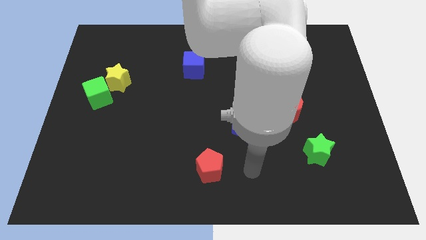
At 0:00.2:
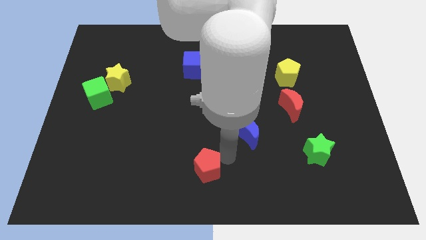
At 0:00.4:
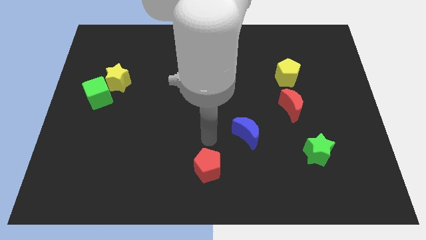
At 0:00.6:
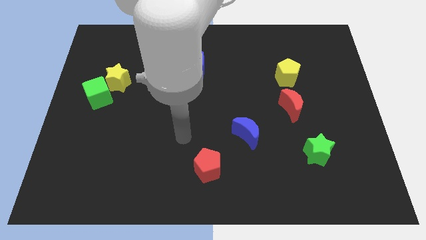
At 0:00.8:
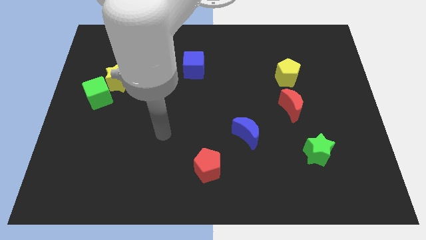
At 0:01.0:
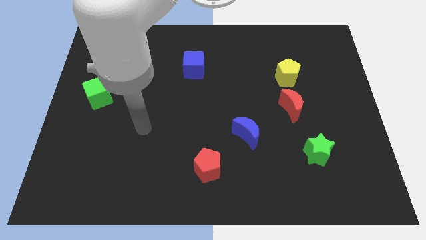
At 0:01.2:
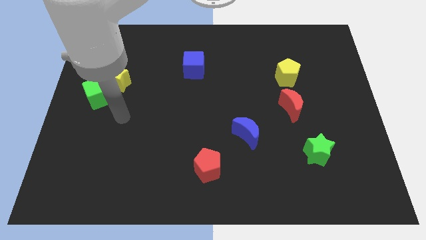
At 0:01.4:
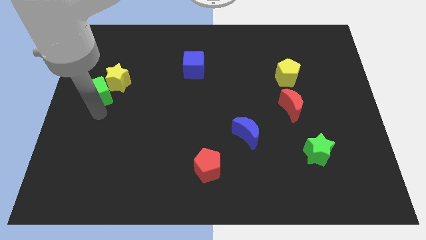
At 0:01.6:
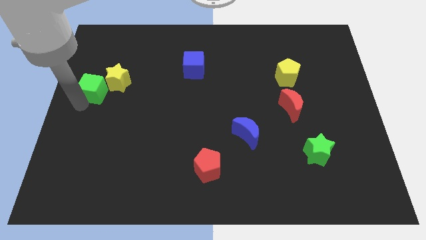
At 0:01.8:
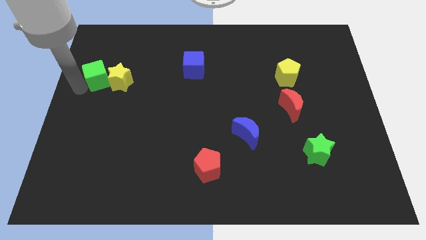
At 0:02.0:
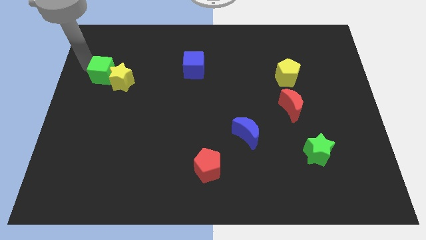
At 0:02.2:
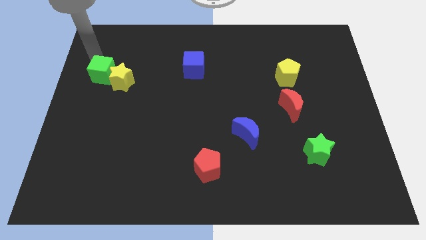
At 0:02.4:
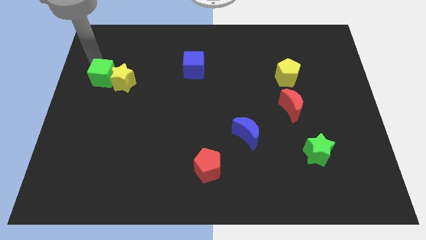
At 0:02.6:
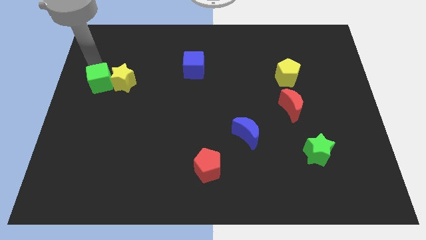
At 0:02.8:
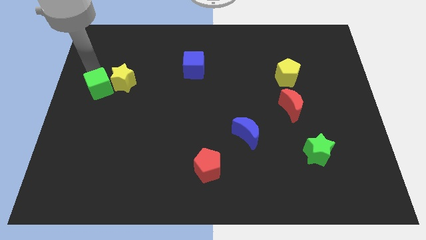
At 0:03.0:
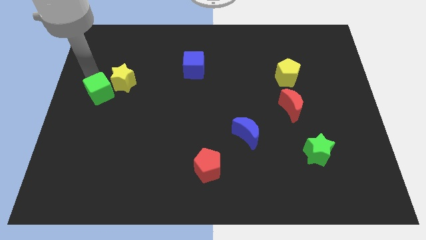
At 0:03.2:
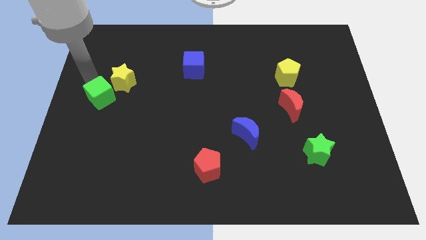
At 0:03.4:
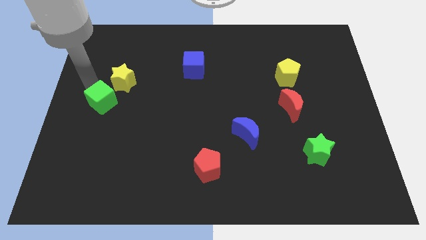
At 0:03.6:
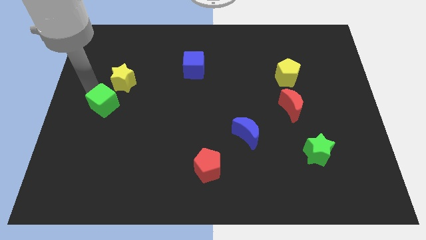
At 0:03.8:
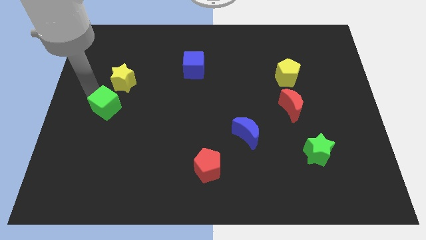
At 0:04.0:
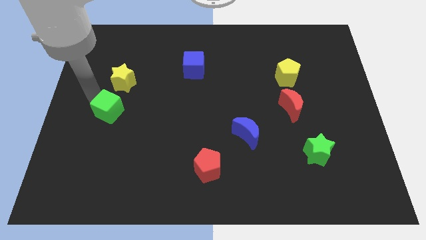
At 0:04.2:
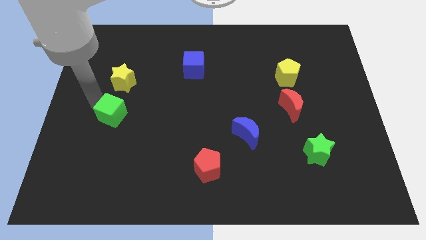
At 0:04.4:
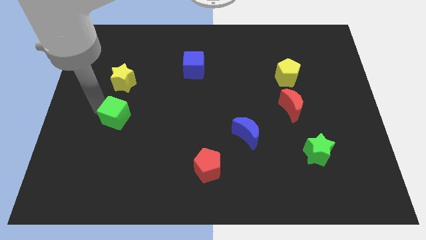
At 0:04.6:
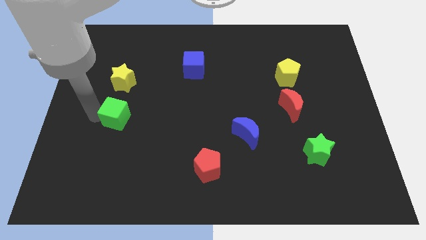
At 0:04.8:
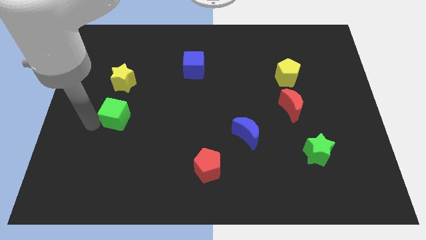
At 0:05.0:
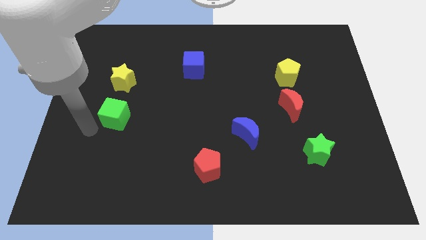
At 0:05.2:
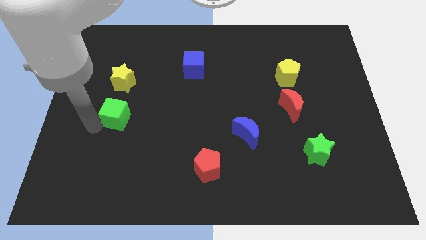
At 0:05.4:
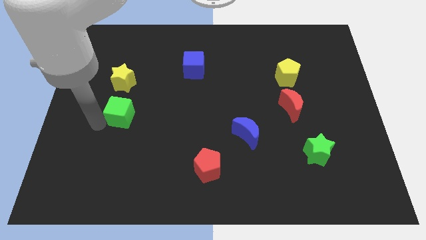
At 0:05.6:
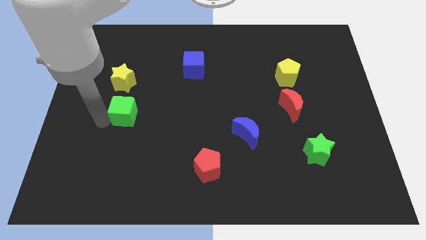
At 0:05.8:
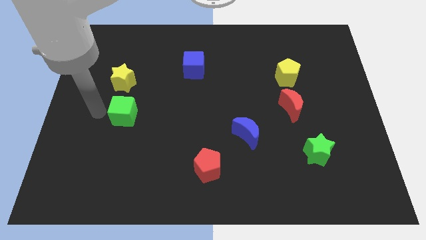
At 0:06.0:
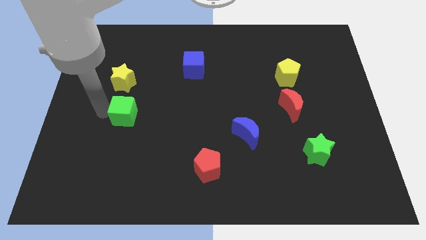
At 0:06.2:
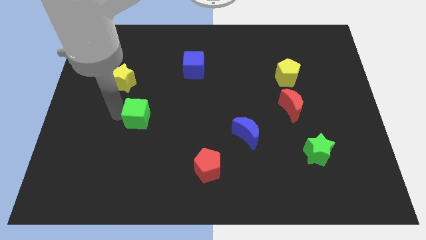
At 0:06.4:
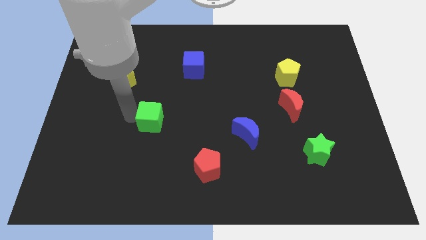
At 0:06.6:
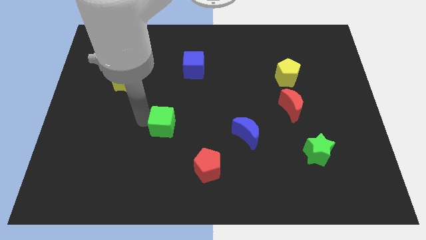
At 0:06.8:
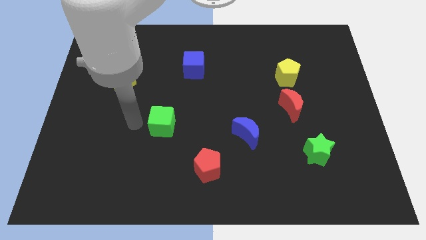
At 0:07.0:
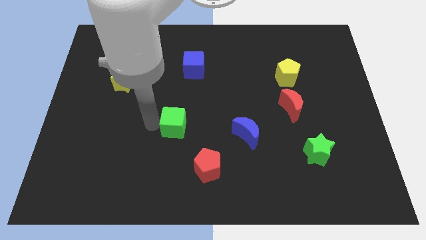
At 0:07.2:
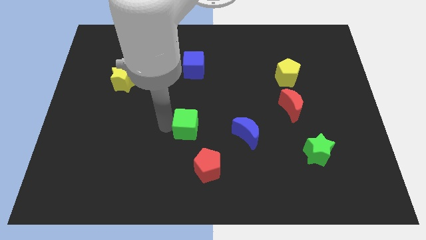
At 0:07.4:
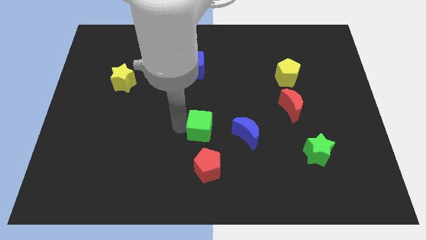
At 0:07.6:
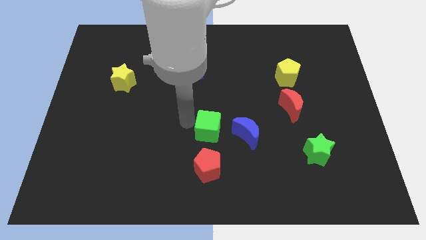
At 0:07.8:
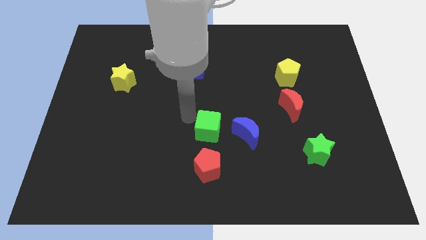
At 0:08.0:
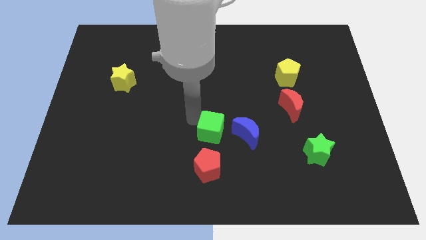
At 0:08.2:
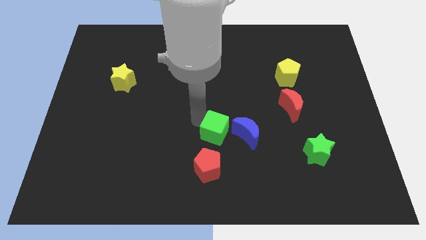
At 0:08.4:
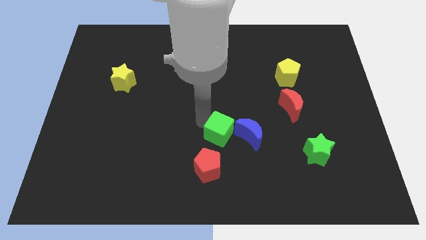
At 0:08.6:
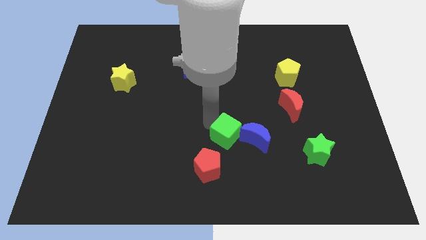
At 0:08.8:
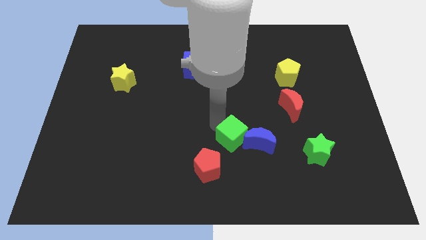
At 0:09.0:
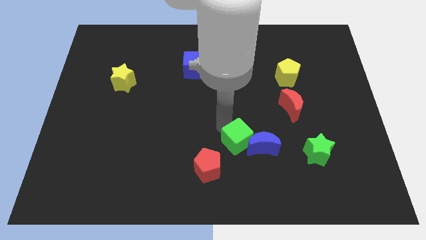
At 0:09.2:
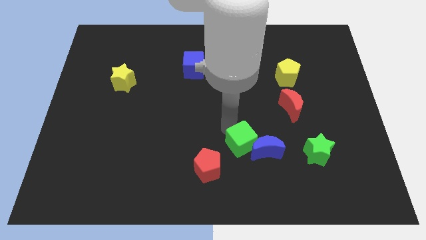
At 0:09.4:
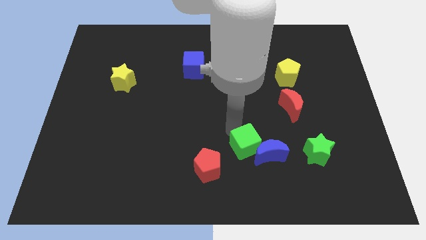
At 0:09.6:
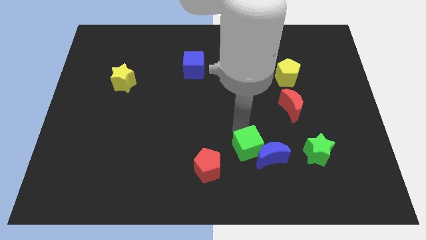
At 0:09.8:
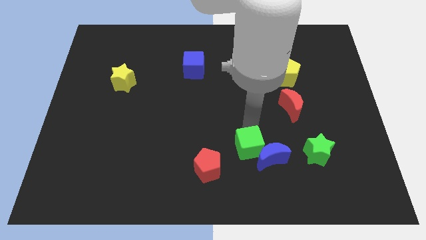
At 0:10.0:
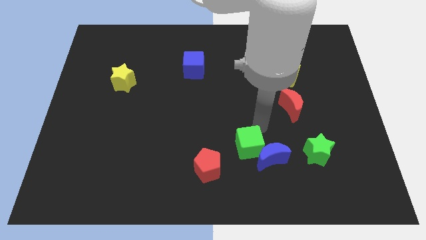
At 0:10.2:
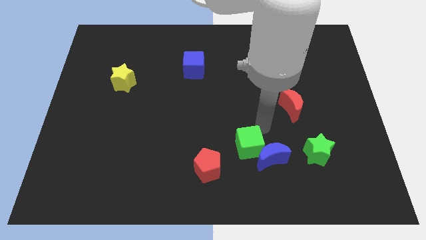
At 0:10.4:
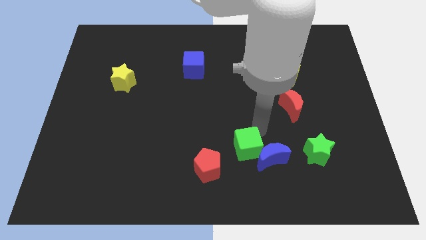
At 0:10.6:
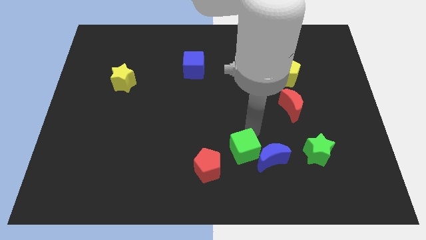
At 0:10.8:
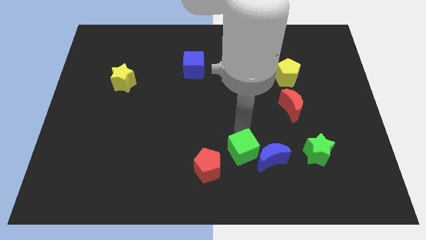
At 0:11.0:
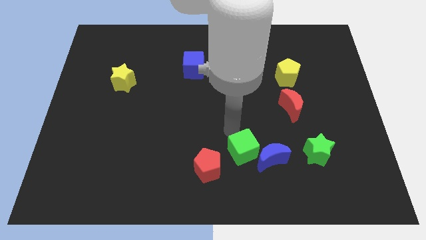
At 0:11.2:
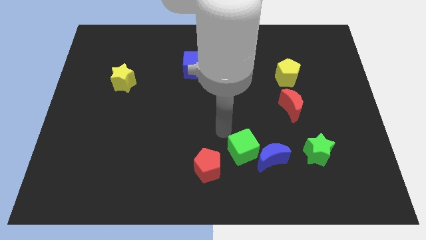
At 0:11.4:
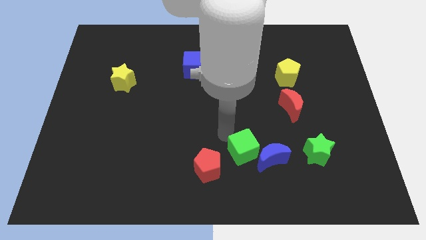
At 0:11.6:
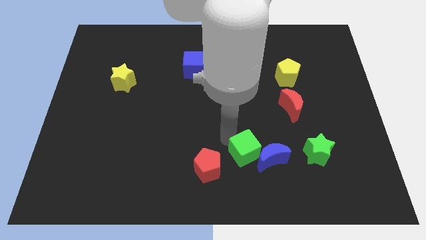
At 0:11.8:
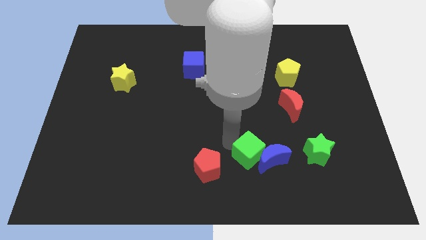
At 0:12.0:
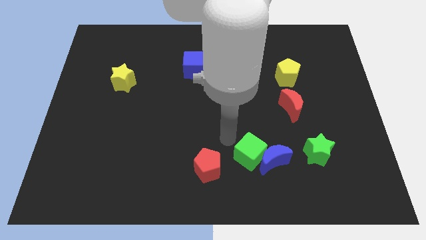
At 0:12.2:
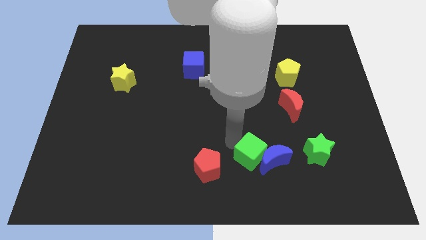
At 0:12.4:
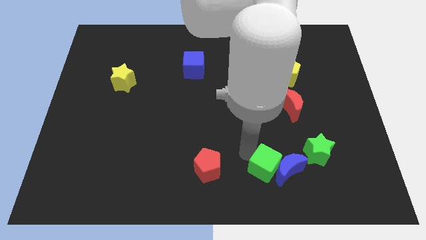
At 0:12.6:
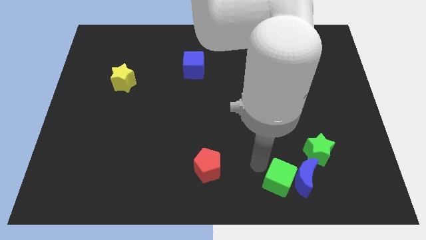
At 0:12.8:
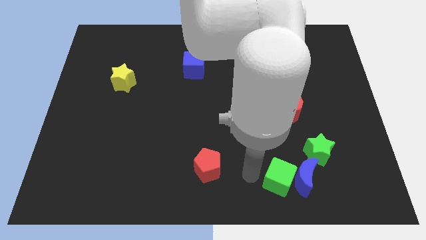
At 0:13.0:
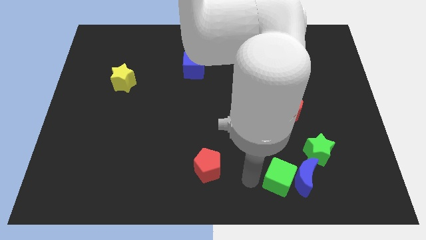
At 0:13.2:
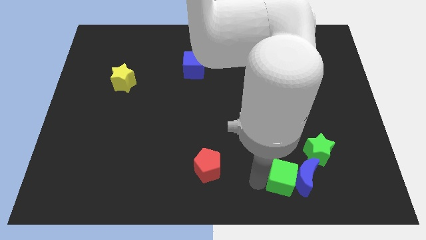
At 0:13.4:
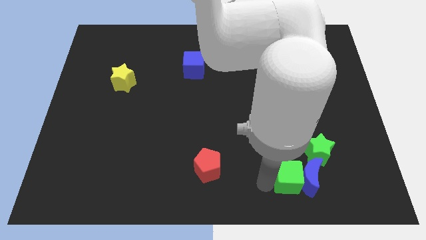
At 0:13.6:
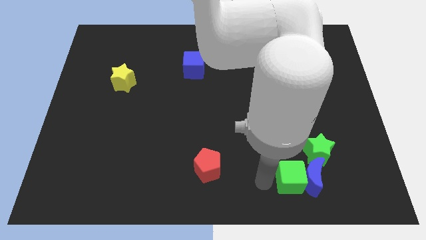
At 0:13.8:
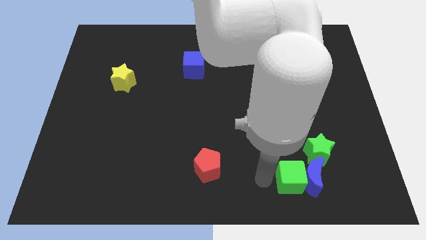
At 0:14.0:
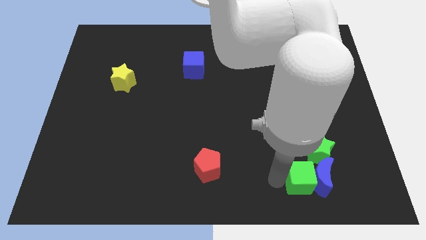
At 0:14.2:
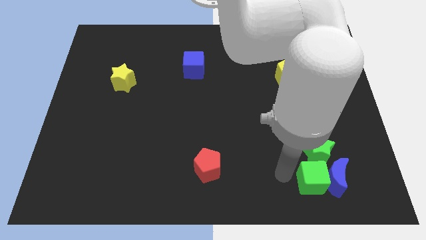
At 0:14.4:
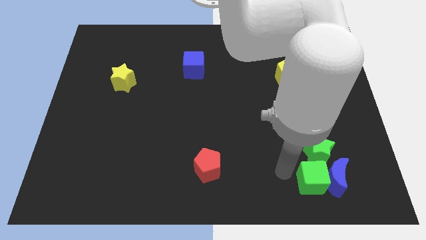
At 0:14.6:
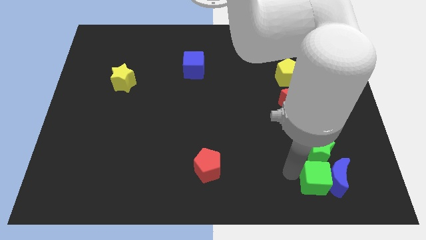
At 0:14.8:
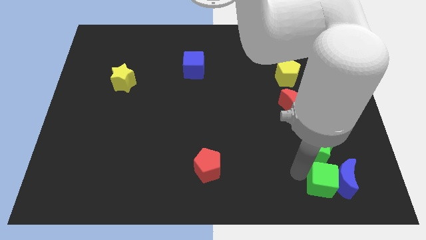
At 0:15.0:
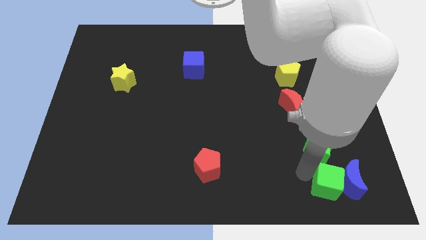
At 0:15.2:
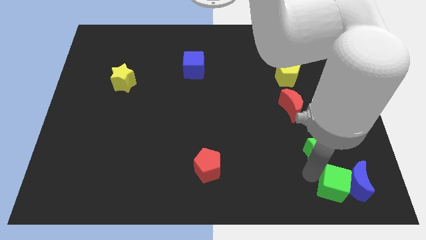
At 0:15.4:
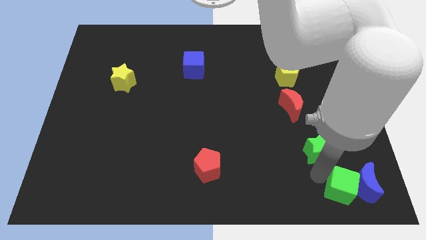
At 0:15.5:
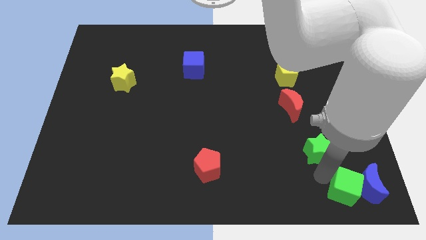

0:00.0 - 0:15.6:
slide the green cube to the lower right corner
